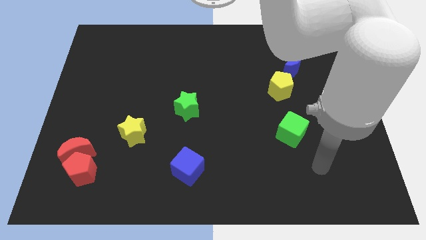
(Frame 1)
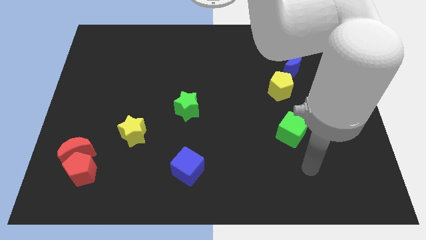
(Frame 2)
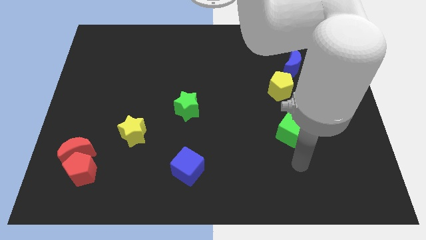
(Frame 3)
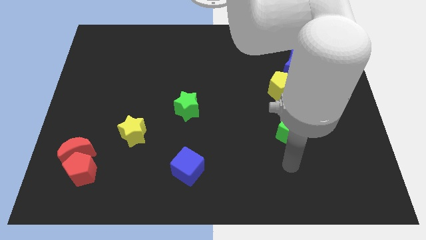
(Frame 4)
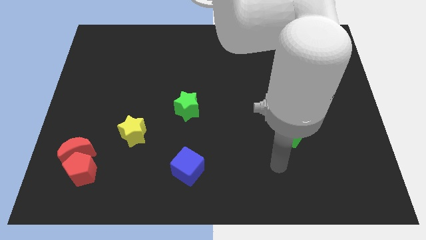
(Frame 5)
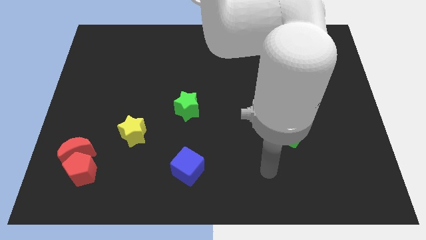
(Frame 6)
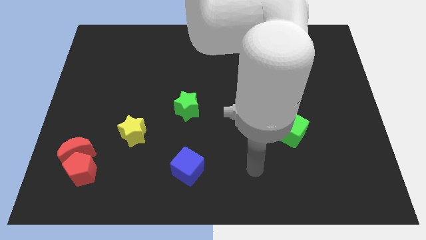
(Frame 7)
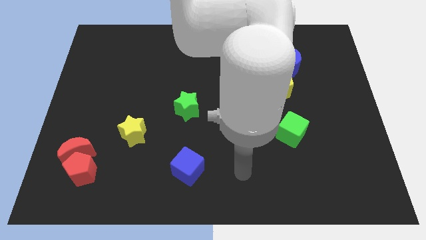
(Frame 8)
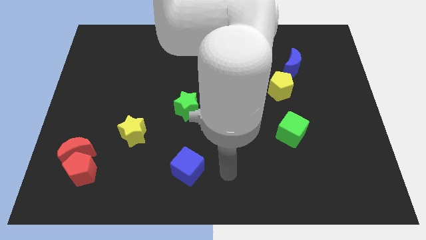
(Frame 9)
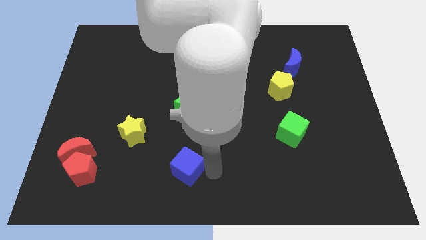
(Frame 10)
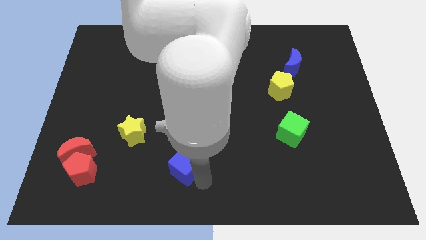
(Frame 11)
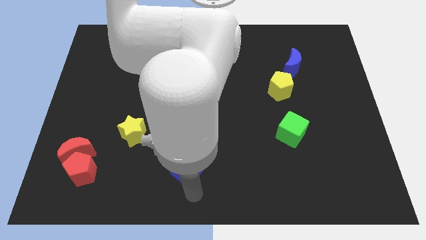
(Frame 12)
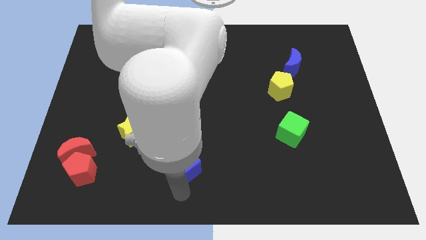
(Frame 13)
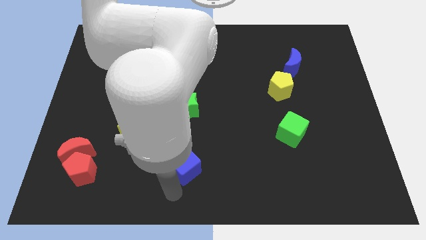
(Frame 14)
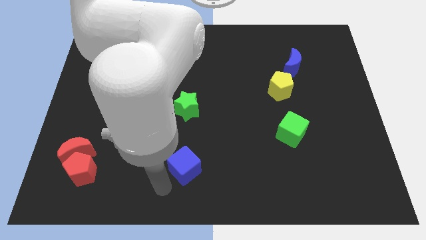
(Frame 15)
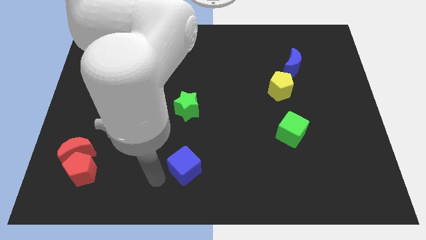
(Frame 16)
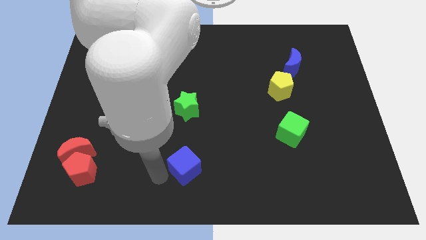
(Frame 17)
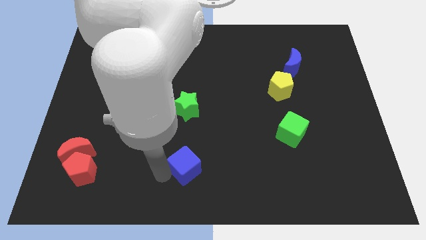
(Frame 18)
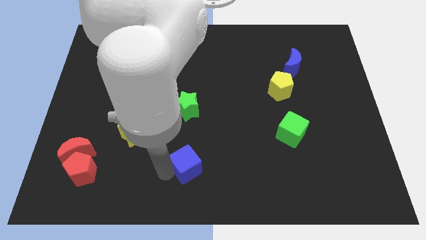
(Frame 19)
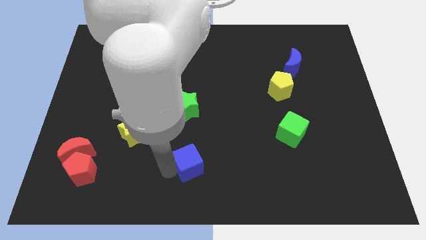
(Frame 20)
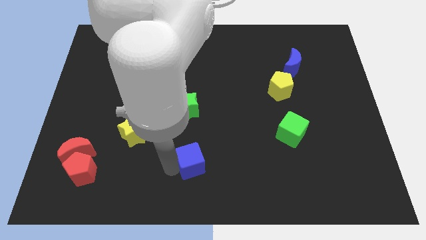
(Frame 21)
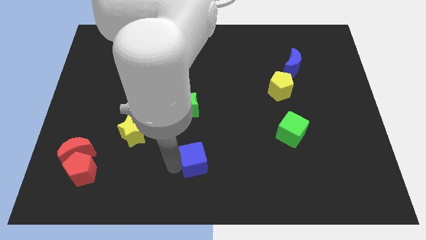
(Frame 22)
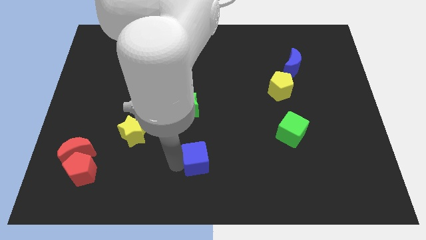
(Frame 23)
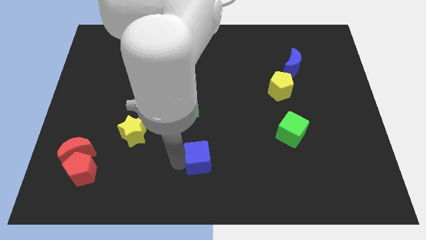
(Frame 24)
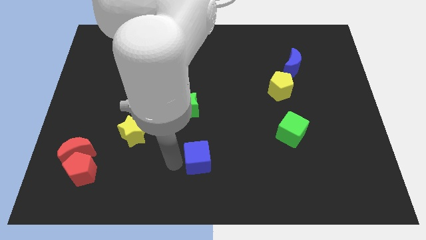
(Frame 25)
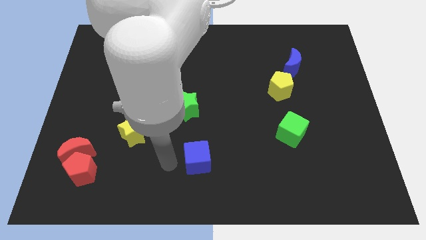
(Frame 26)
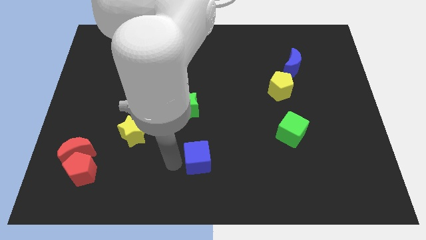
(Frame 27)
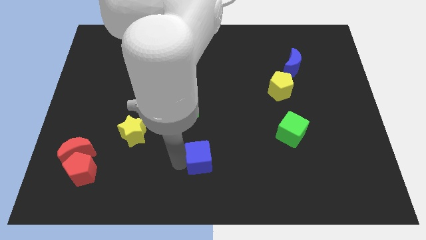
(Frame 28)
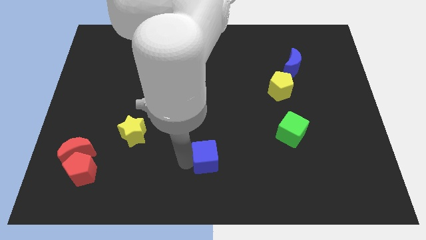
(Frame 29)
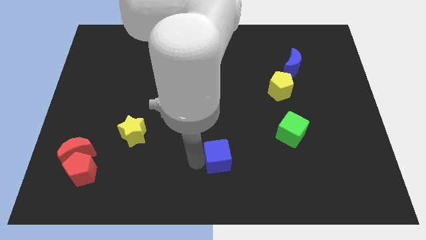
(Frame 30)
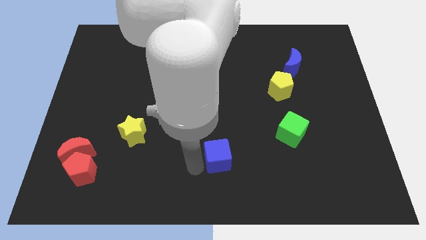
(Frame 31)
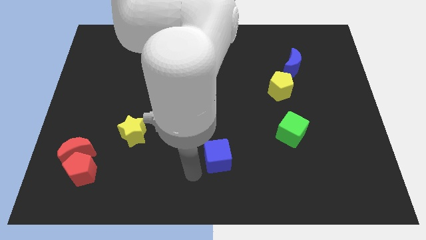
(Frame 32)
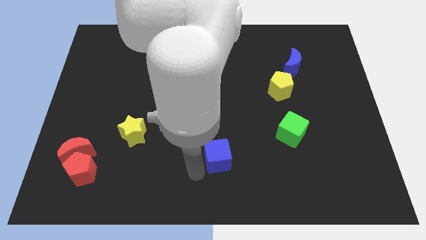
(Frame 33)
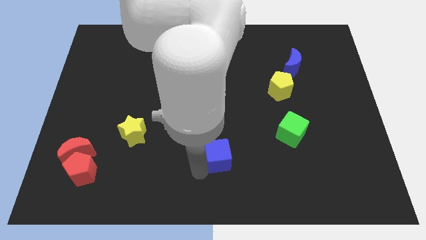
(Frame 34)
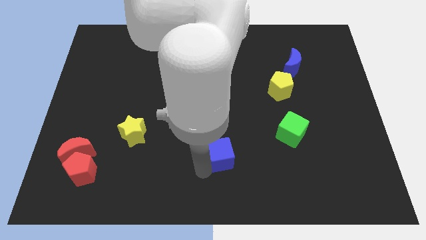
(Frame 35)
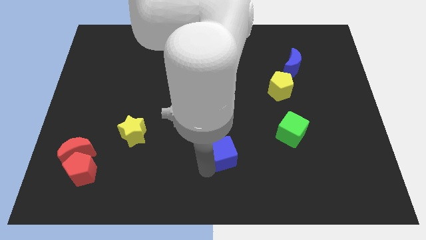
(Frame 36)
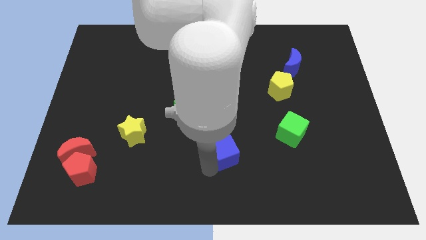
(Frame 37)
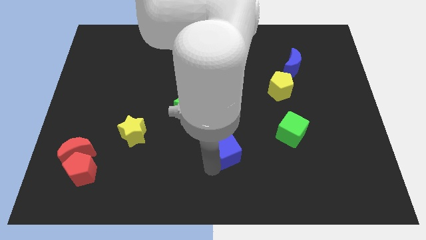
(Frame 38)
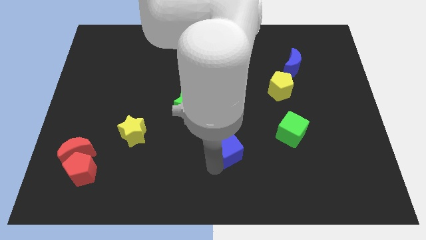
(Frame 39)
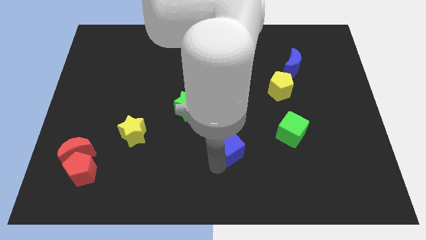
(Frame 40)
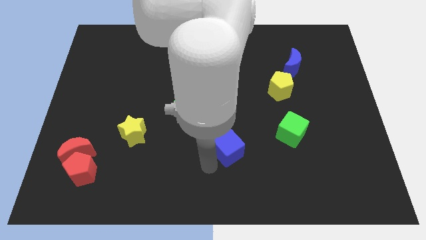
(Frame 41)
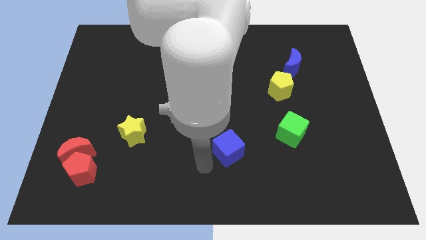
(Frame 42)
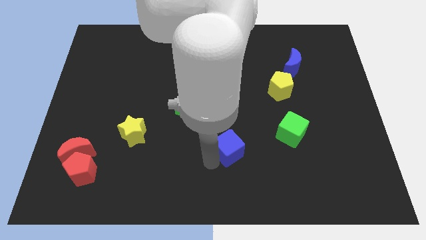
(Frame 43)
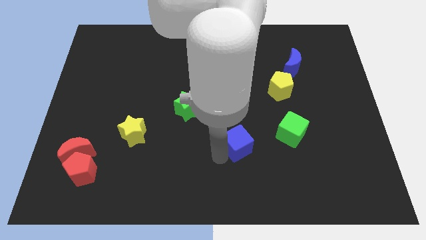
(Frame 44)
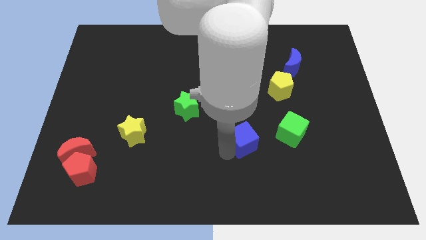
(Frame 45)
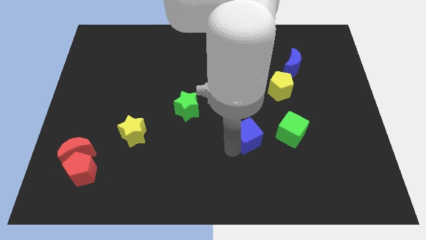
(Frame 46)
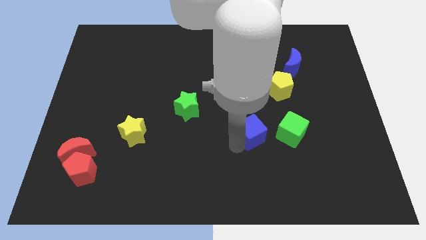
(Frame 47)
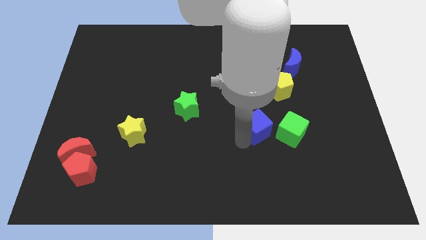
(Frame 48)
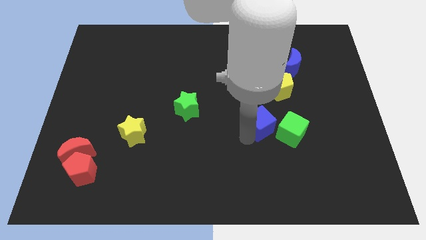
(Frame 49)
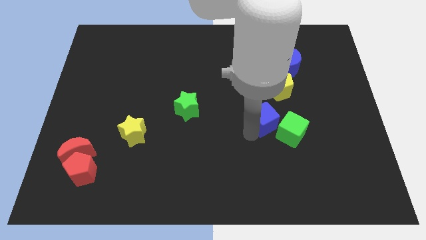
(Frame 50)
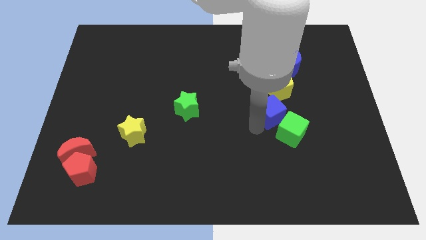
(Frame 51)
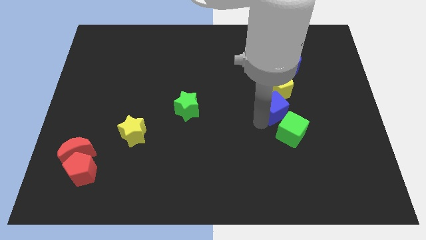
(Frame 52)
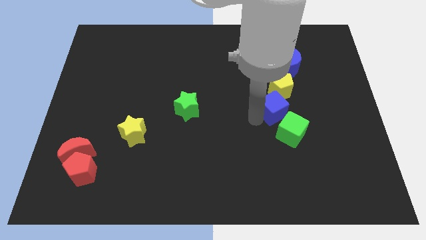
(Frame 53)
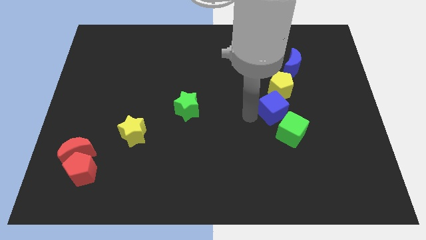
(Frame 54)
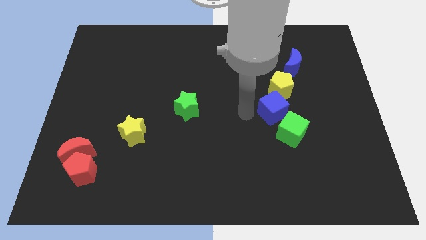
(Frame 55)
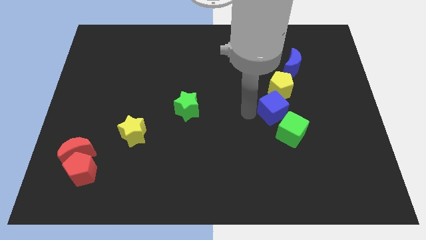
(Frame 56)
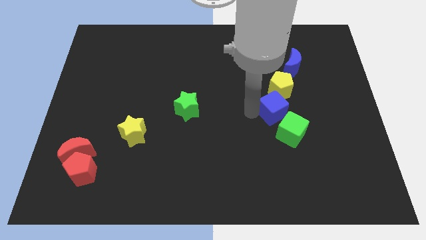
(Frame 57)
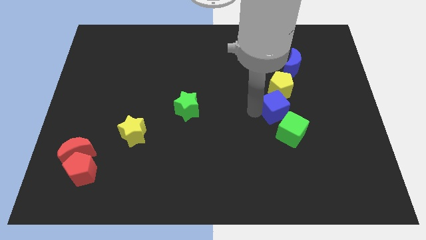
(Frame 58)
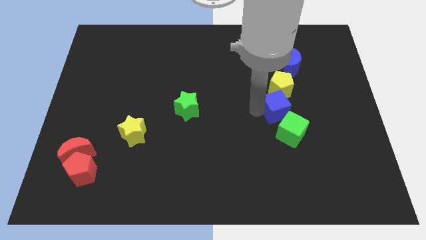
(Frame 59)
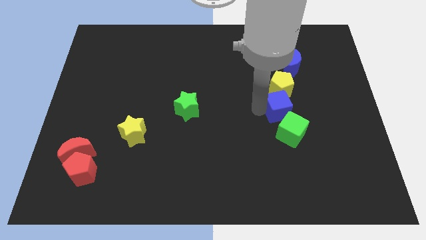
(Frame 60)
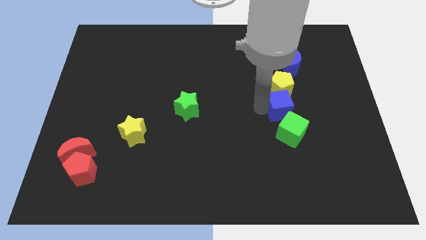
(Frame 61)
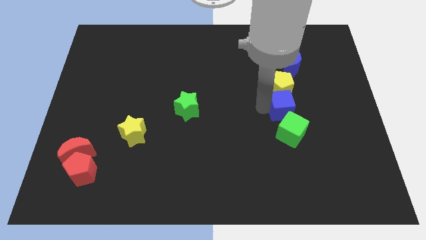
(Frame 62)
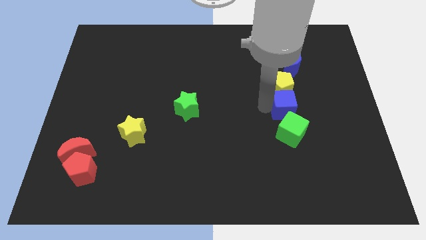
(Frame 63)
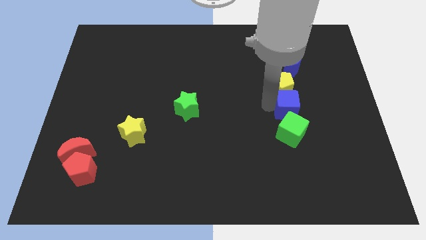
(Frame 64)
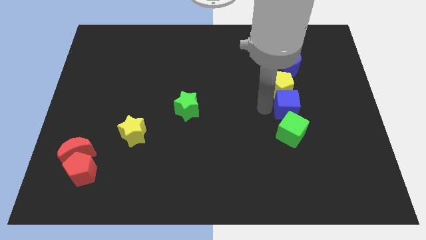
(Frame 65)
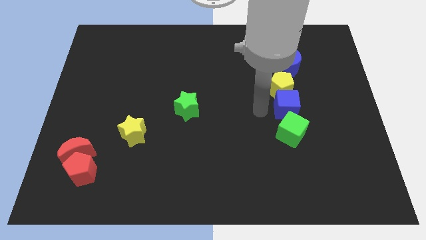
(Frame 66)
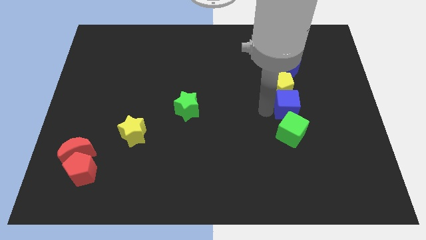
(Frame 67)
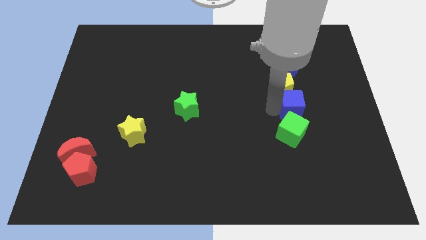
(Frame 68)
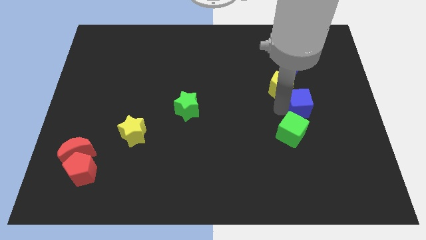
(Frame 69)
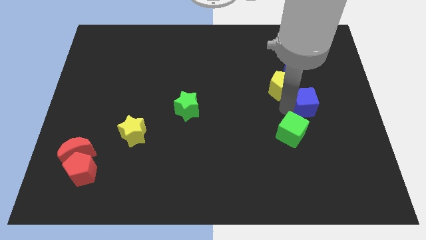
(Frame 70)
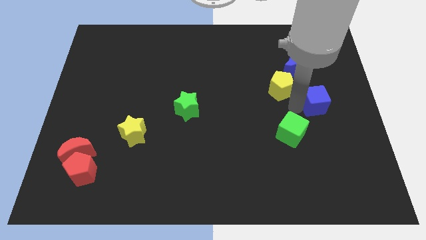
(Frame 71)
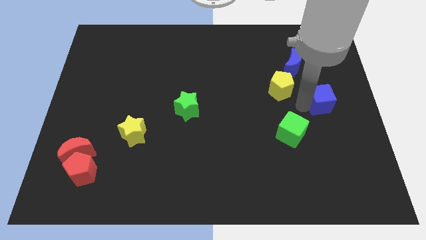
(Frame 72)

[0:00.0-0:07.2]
put the blue cube to the right side of the board
